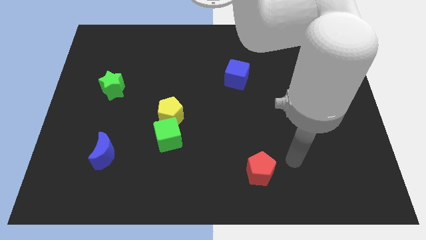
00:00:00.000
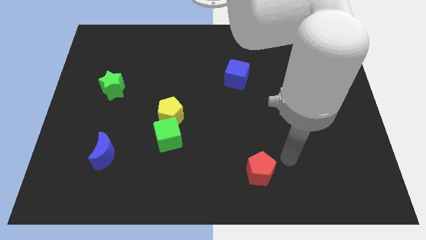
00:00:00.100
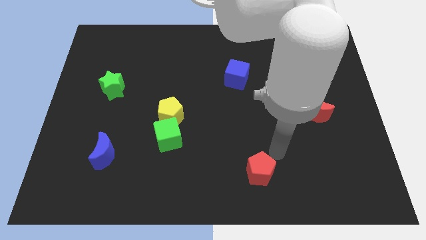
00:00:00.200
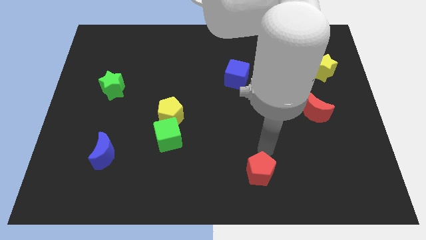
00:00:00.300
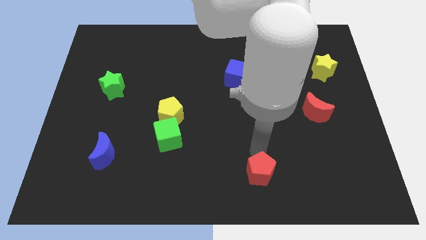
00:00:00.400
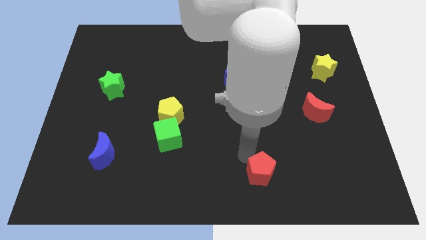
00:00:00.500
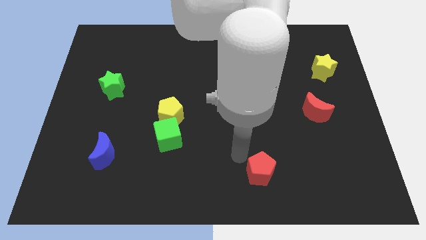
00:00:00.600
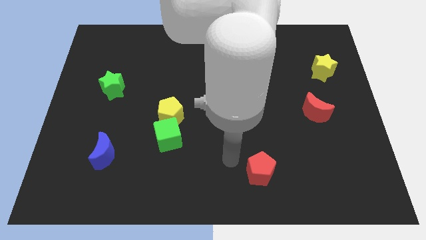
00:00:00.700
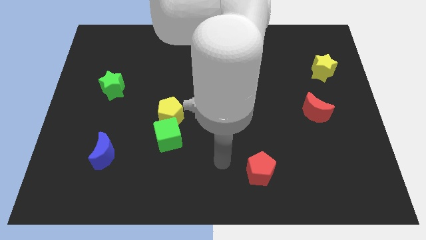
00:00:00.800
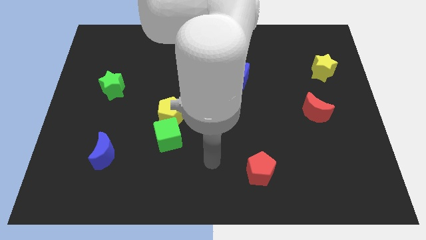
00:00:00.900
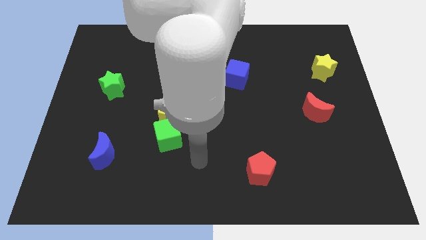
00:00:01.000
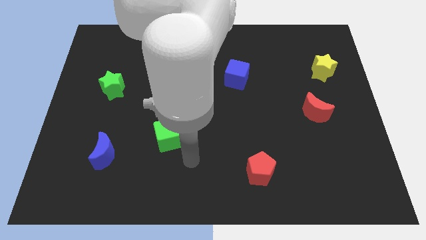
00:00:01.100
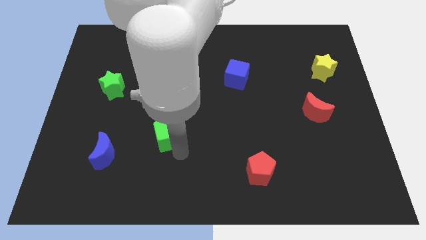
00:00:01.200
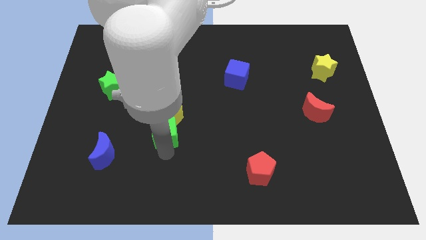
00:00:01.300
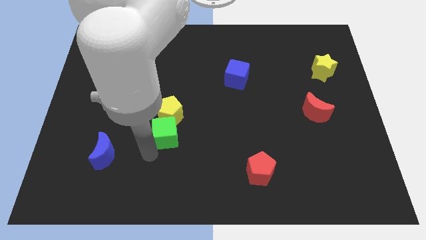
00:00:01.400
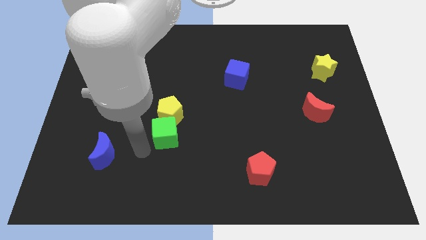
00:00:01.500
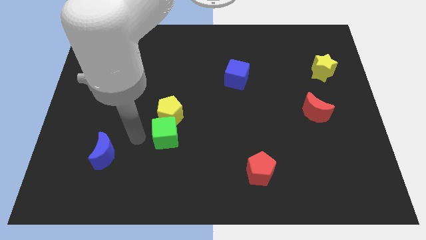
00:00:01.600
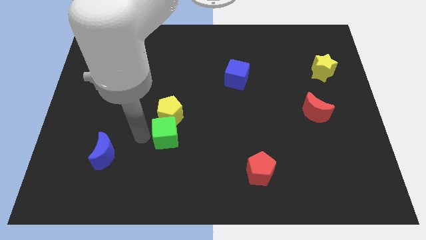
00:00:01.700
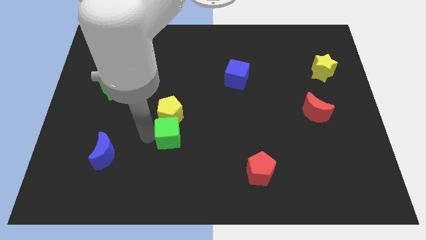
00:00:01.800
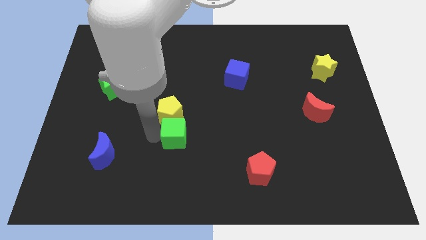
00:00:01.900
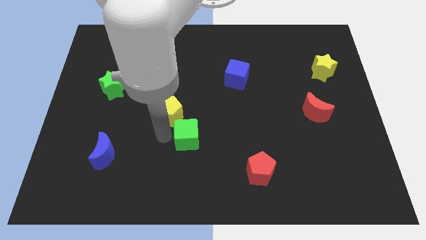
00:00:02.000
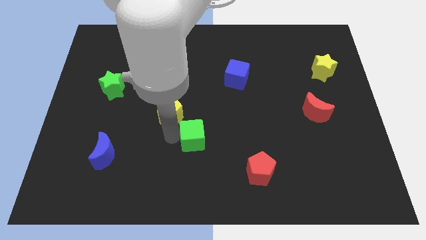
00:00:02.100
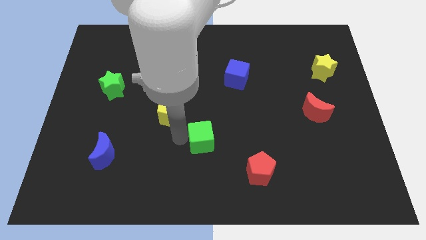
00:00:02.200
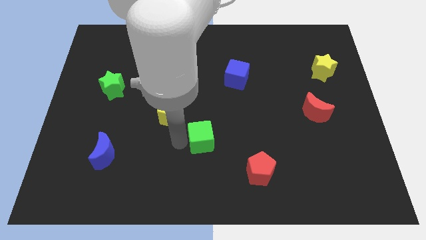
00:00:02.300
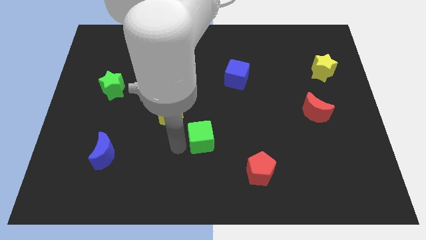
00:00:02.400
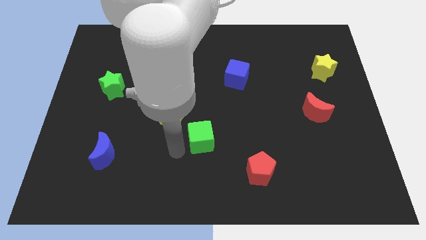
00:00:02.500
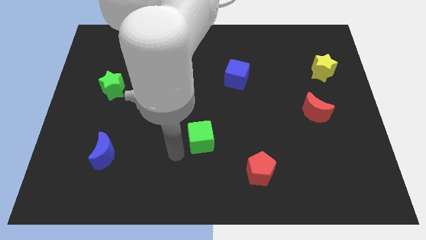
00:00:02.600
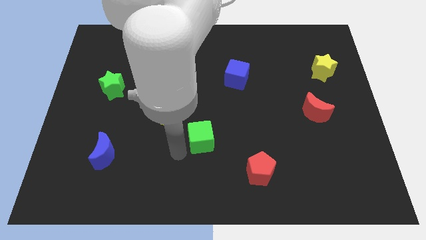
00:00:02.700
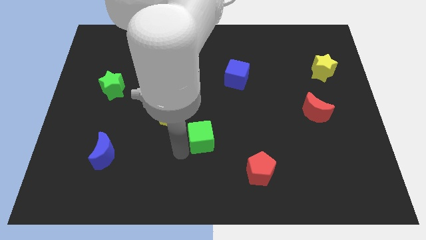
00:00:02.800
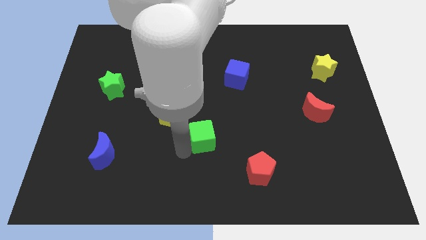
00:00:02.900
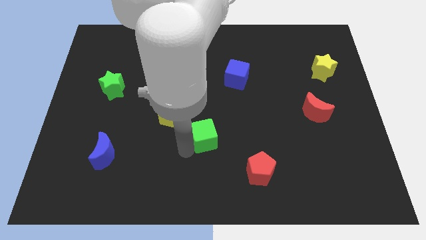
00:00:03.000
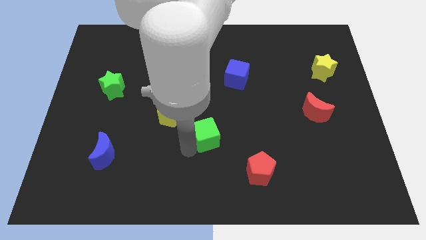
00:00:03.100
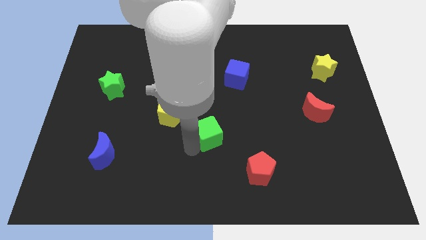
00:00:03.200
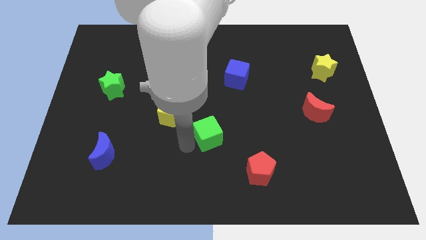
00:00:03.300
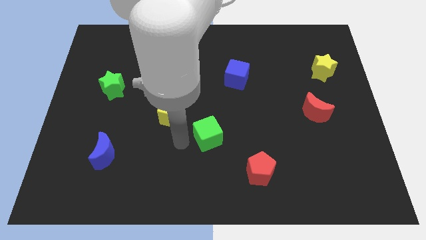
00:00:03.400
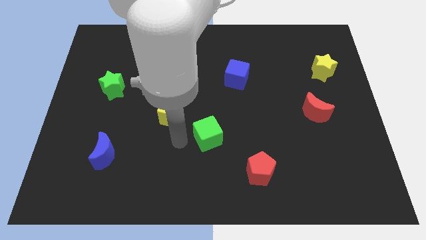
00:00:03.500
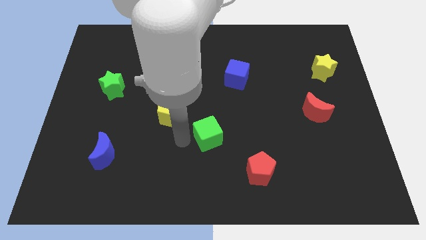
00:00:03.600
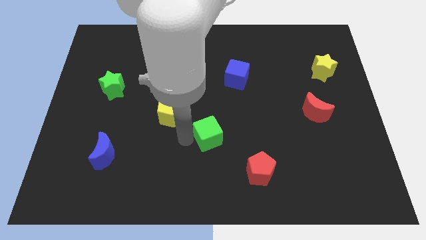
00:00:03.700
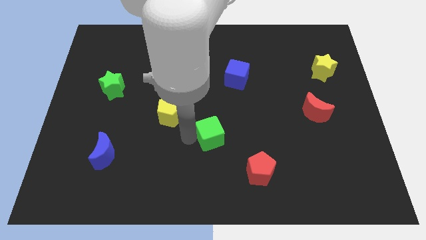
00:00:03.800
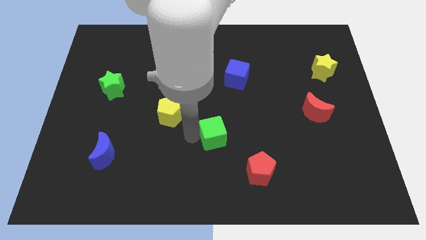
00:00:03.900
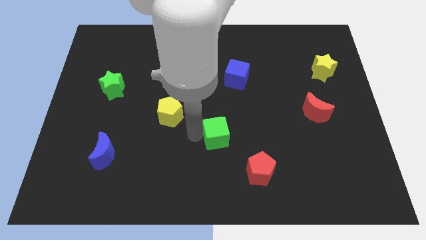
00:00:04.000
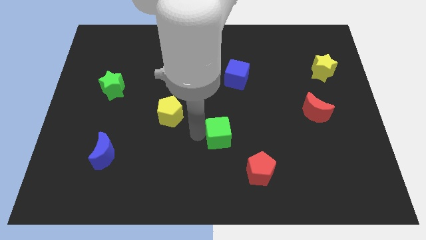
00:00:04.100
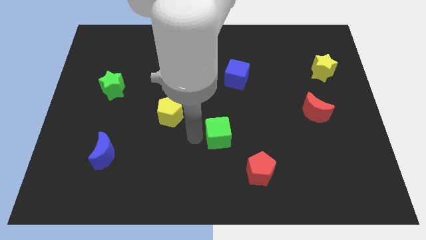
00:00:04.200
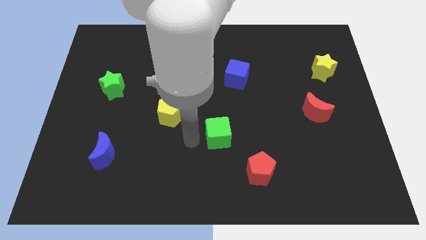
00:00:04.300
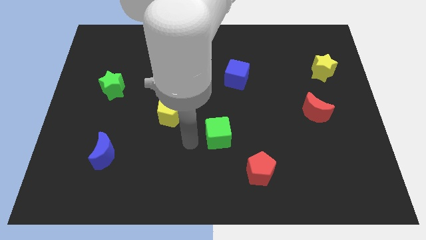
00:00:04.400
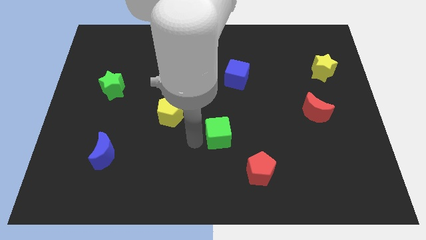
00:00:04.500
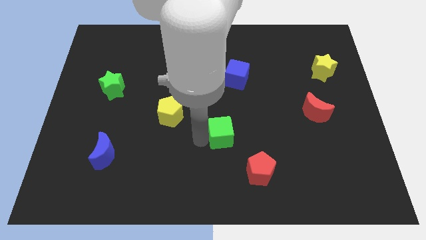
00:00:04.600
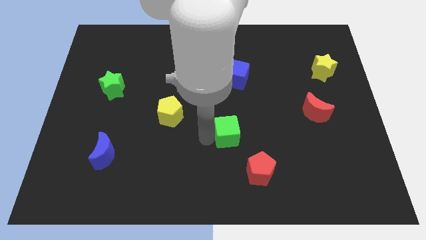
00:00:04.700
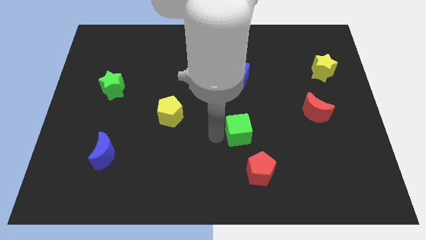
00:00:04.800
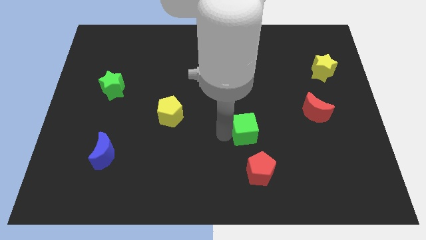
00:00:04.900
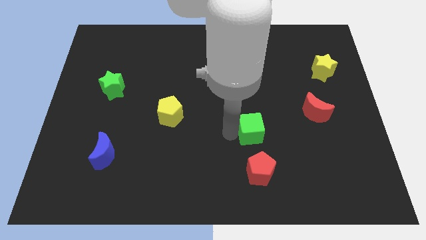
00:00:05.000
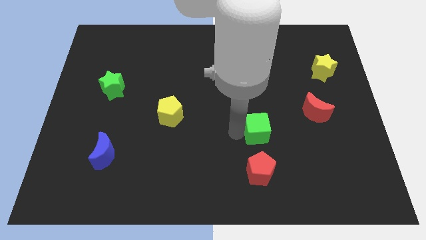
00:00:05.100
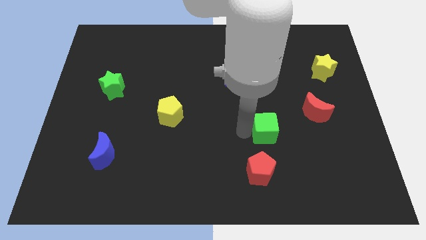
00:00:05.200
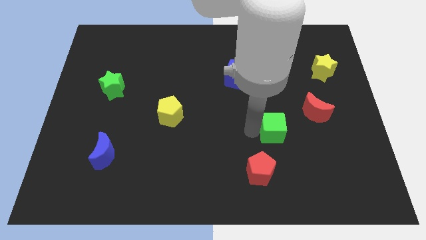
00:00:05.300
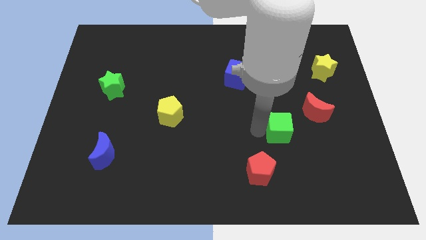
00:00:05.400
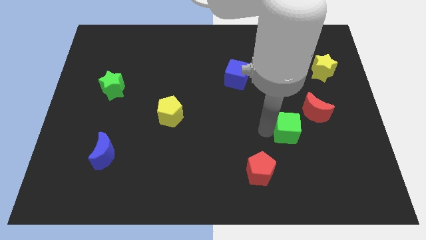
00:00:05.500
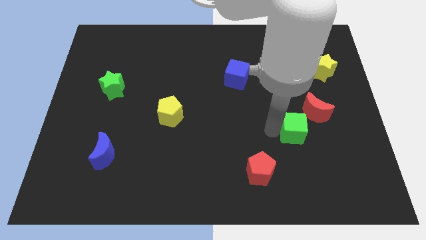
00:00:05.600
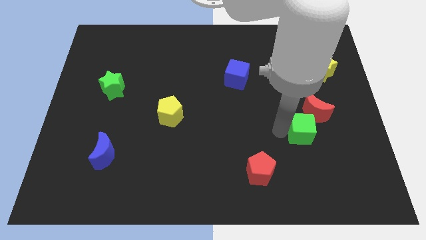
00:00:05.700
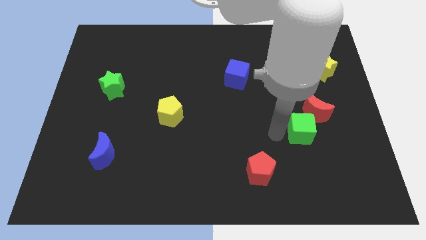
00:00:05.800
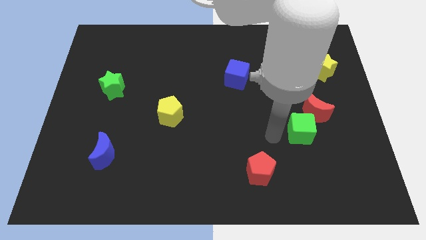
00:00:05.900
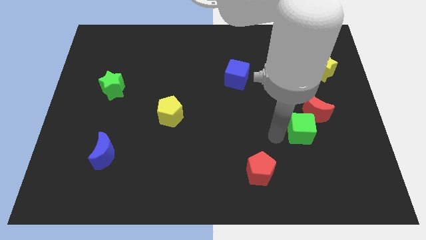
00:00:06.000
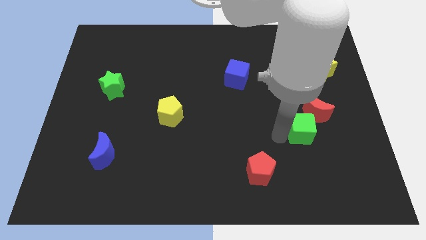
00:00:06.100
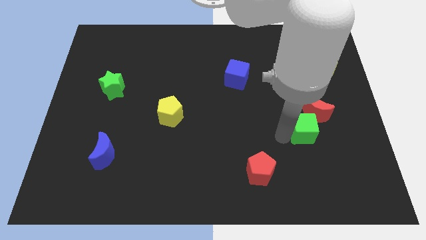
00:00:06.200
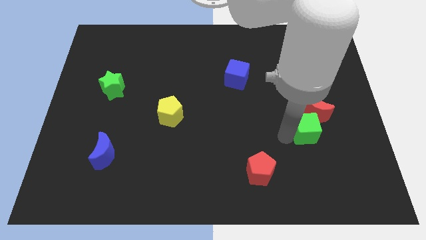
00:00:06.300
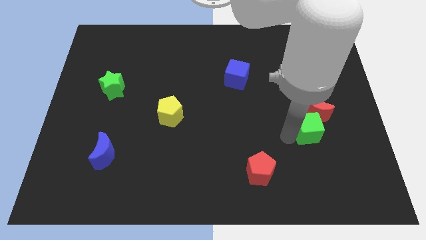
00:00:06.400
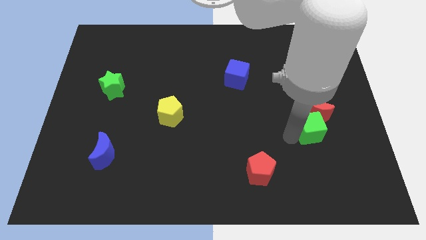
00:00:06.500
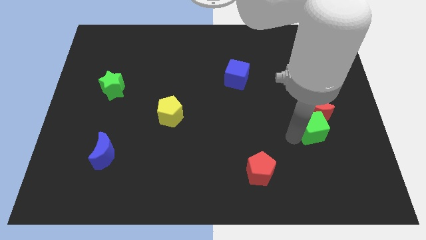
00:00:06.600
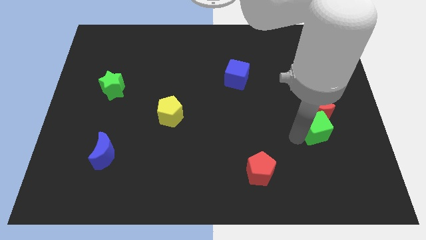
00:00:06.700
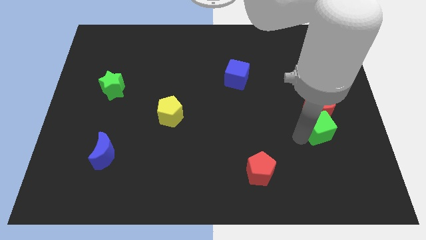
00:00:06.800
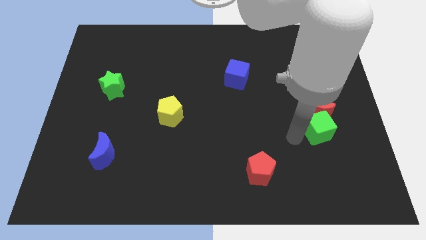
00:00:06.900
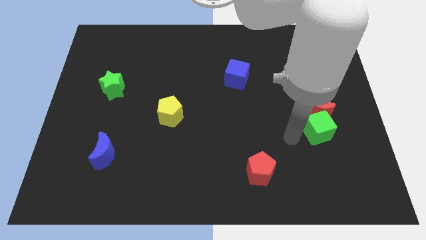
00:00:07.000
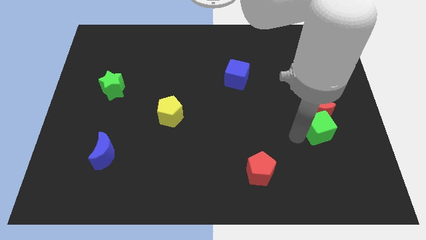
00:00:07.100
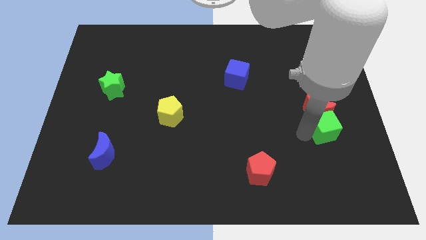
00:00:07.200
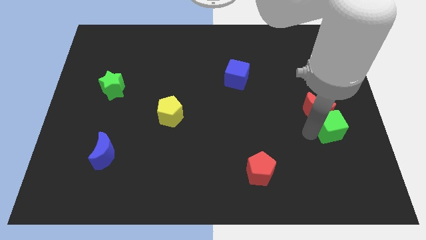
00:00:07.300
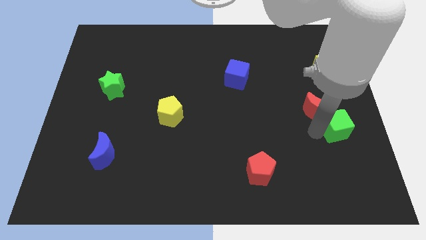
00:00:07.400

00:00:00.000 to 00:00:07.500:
move the green cube to the right side
